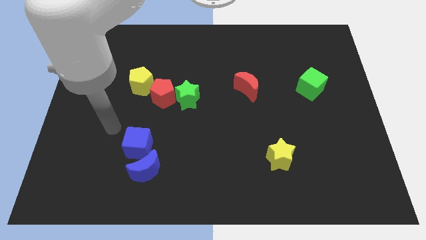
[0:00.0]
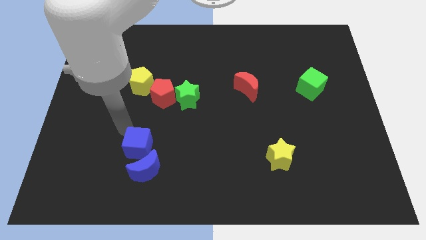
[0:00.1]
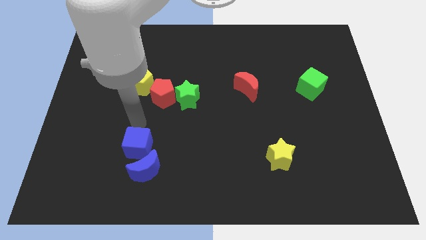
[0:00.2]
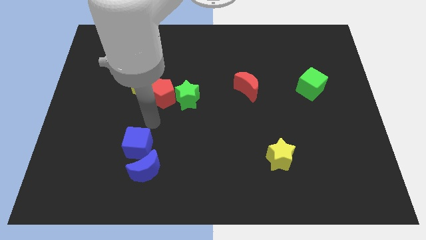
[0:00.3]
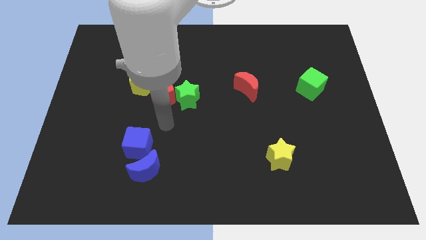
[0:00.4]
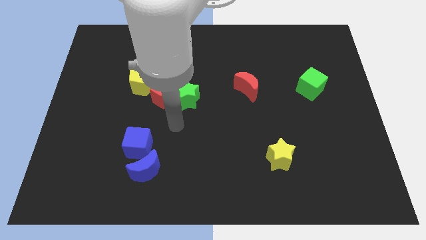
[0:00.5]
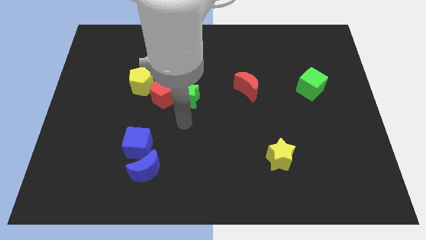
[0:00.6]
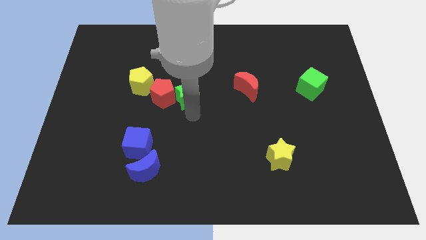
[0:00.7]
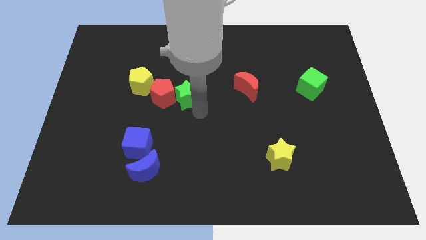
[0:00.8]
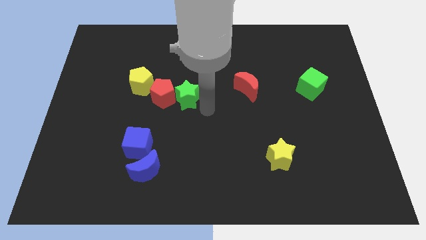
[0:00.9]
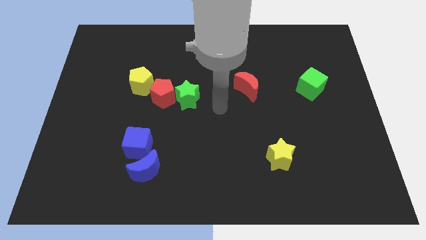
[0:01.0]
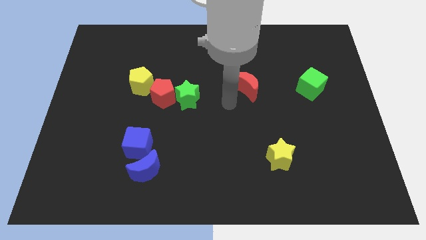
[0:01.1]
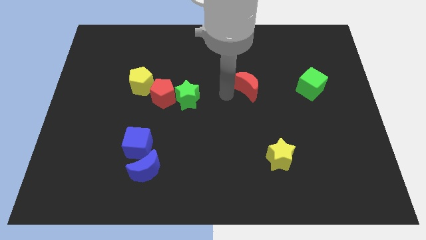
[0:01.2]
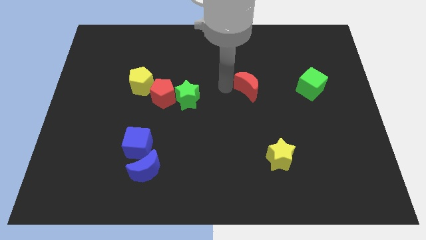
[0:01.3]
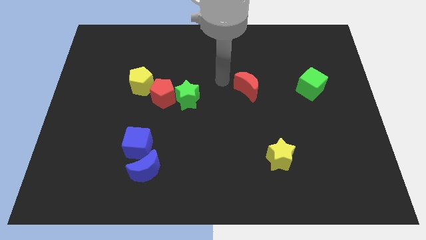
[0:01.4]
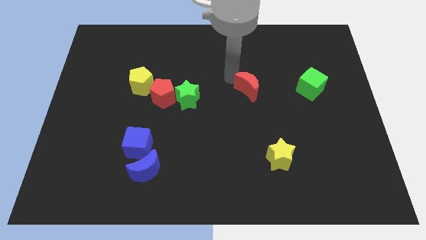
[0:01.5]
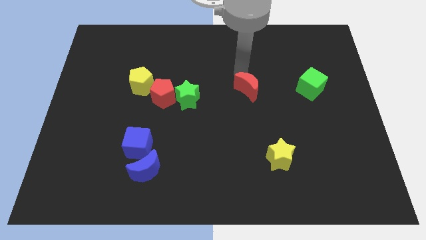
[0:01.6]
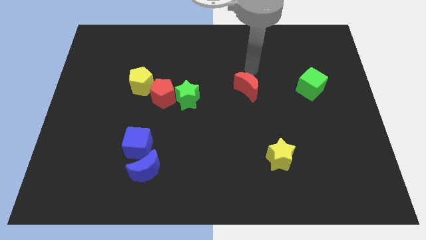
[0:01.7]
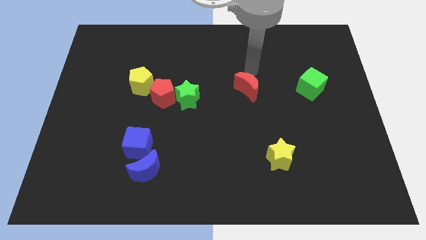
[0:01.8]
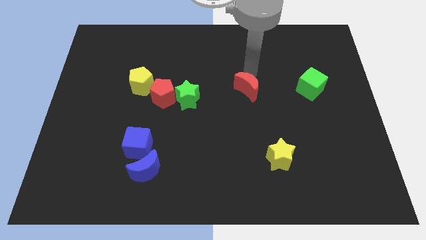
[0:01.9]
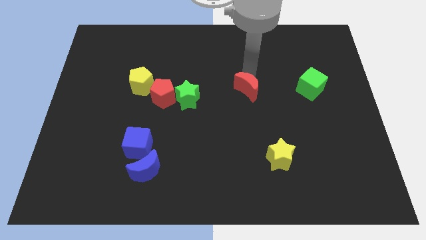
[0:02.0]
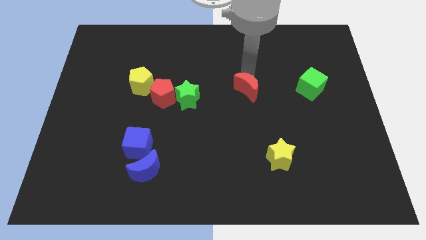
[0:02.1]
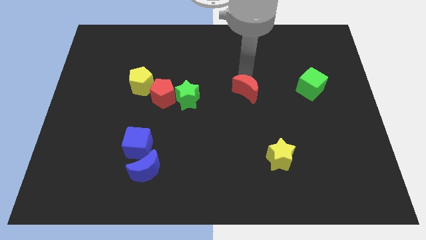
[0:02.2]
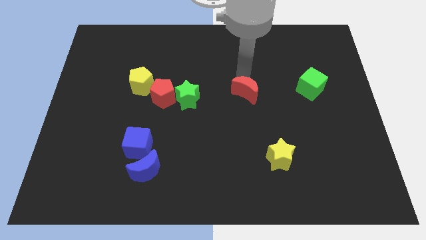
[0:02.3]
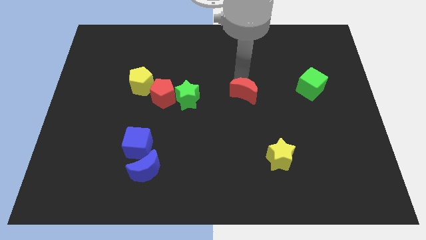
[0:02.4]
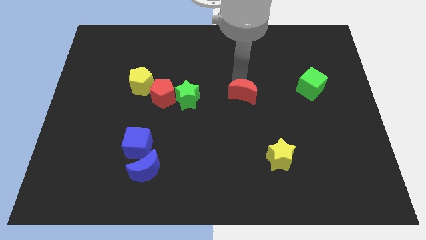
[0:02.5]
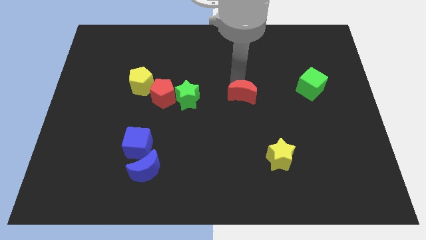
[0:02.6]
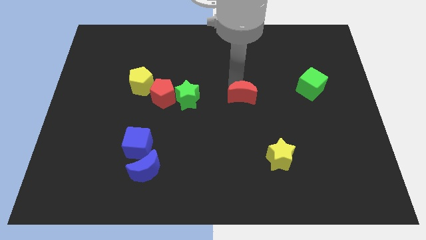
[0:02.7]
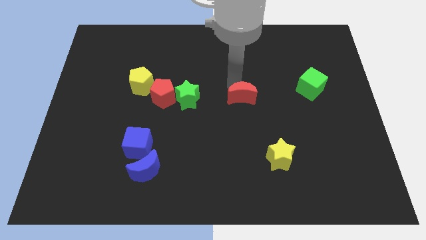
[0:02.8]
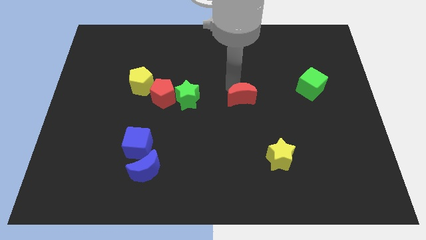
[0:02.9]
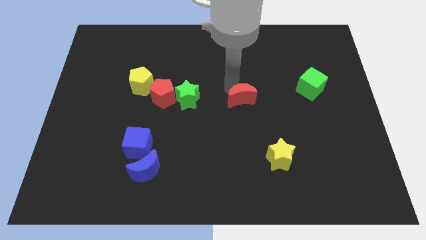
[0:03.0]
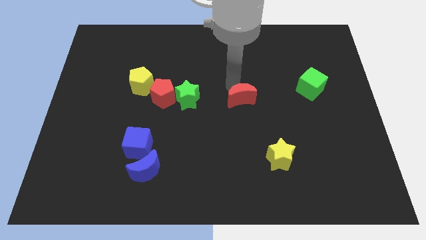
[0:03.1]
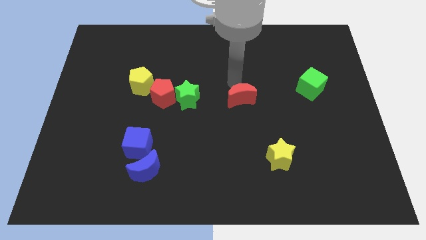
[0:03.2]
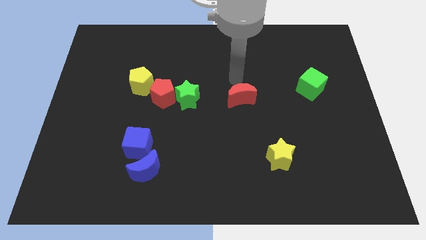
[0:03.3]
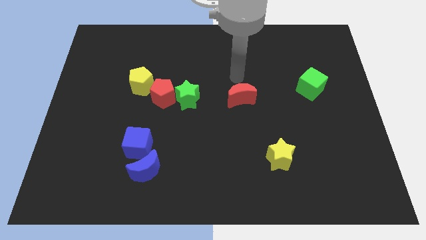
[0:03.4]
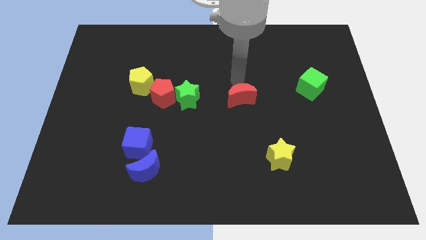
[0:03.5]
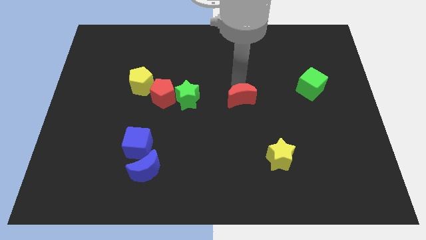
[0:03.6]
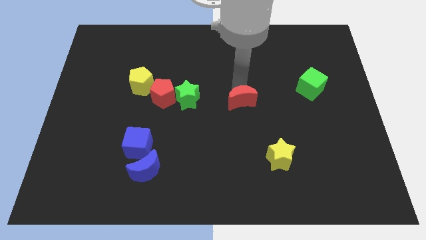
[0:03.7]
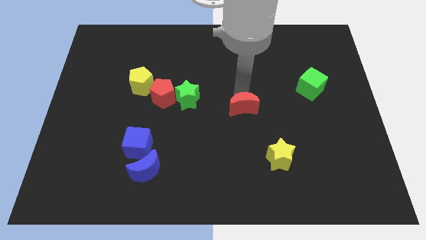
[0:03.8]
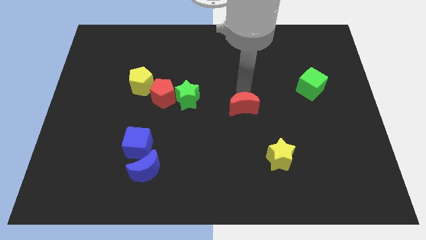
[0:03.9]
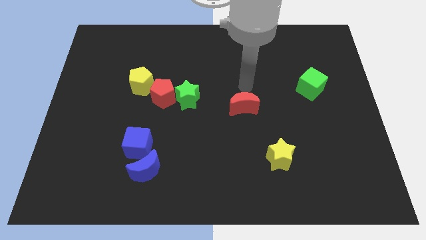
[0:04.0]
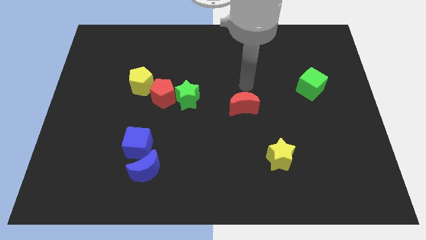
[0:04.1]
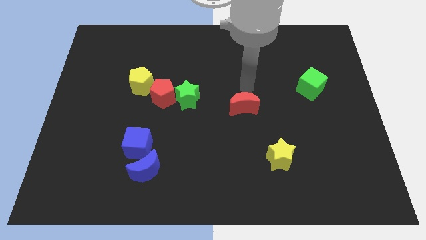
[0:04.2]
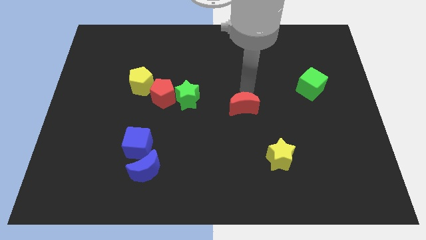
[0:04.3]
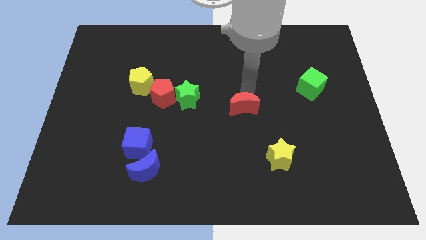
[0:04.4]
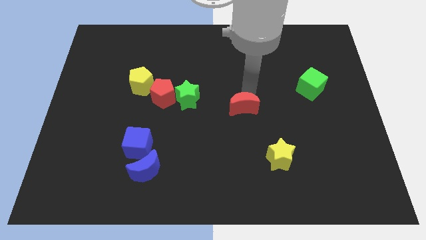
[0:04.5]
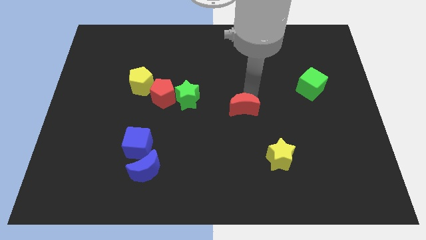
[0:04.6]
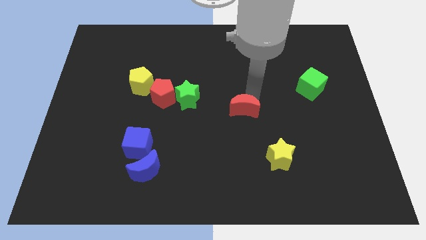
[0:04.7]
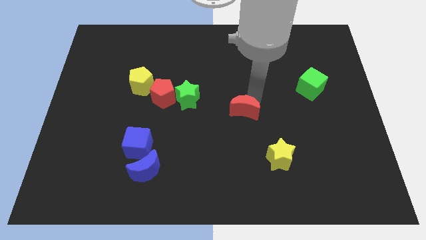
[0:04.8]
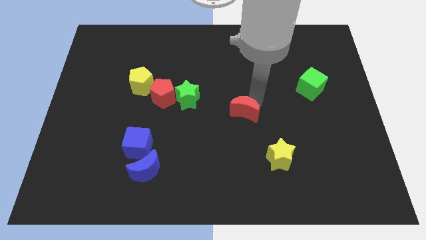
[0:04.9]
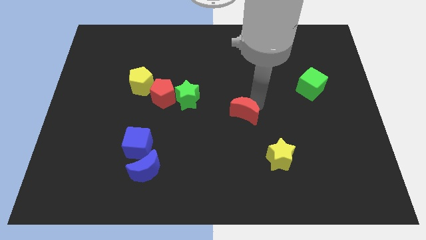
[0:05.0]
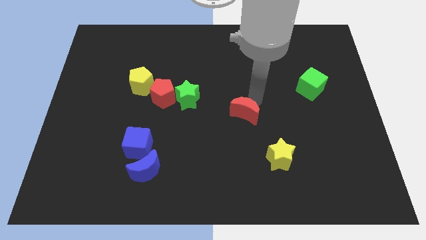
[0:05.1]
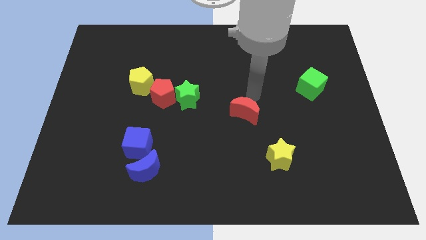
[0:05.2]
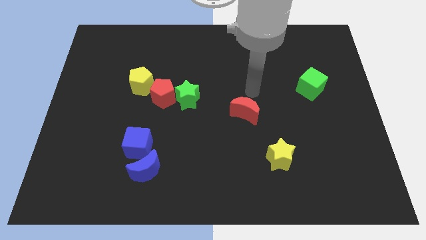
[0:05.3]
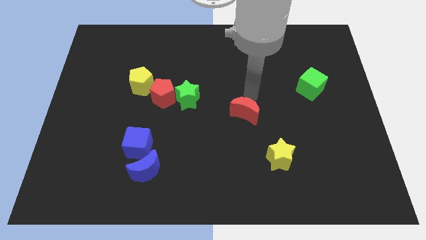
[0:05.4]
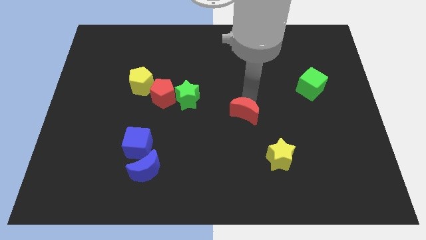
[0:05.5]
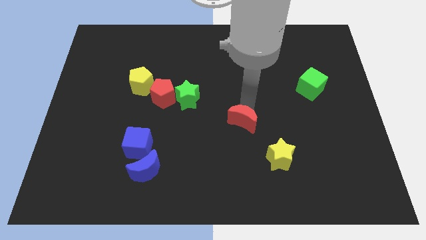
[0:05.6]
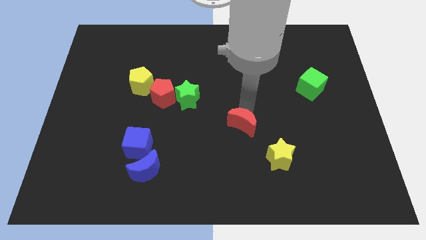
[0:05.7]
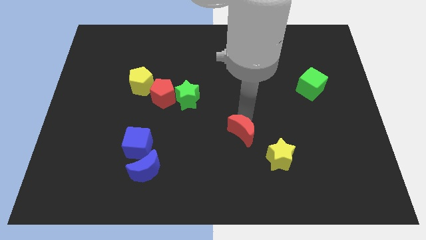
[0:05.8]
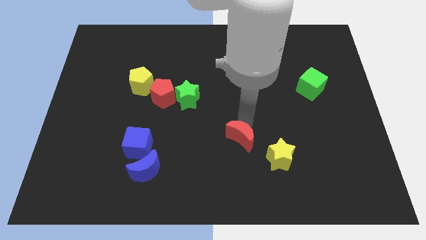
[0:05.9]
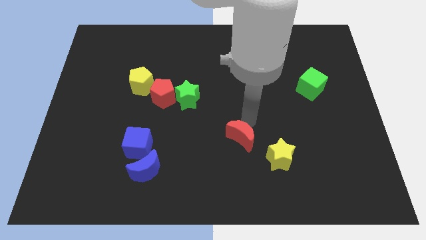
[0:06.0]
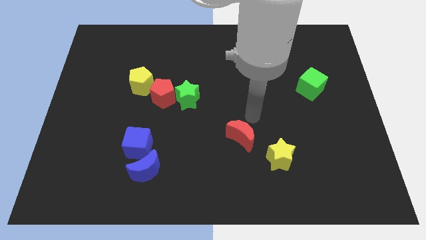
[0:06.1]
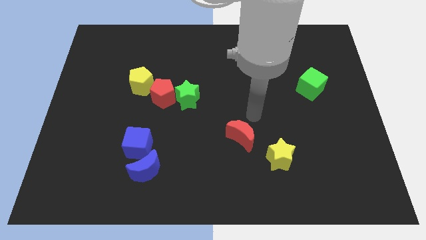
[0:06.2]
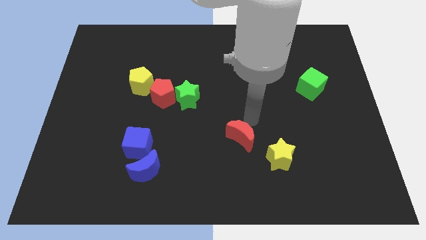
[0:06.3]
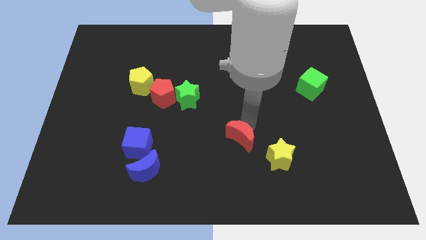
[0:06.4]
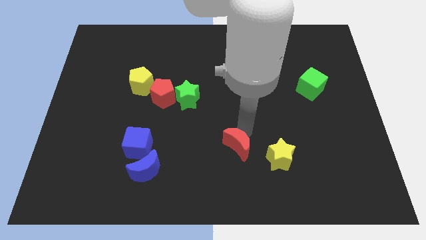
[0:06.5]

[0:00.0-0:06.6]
slide the red moon just left of the yellow star
